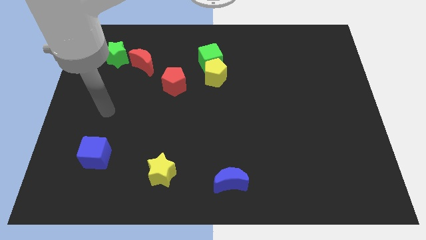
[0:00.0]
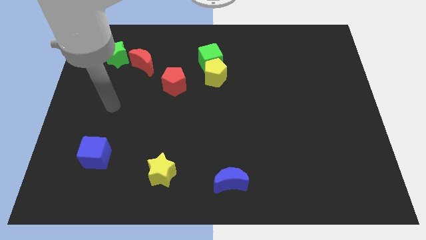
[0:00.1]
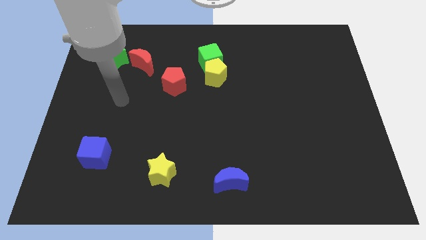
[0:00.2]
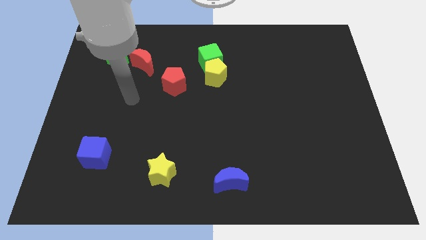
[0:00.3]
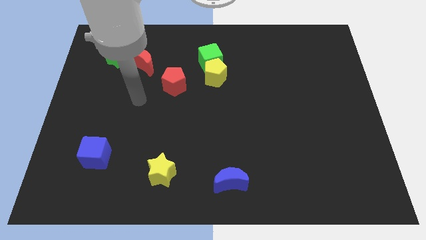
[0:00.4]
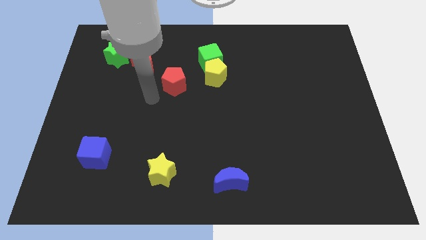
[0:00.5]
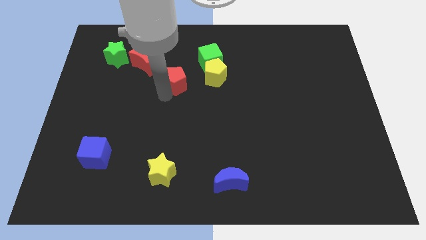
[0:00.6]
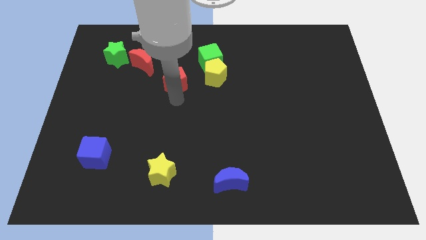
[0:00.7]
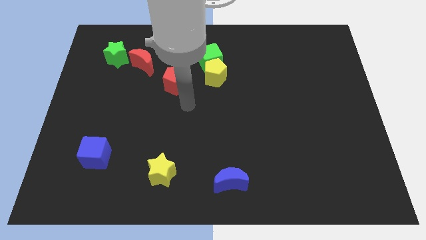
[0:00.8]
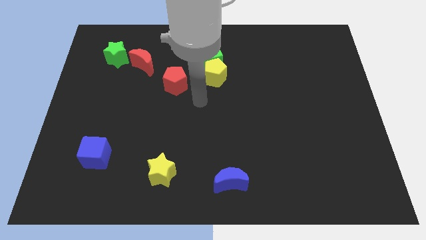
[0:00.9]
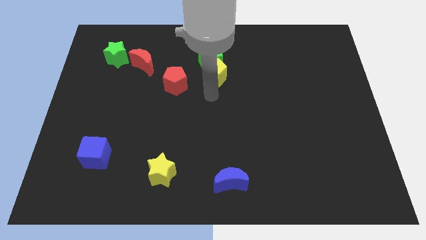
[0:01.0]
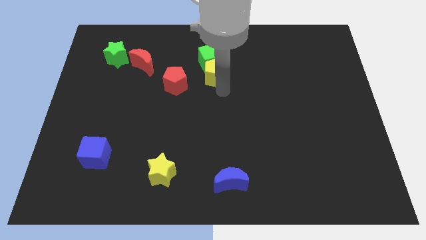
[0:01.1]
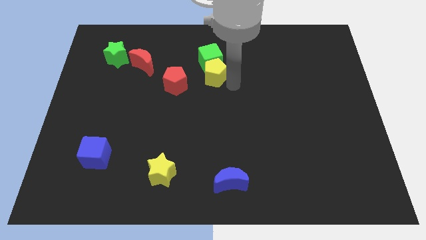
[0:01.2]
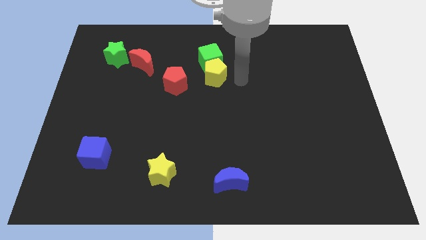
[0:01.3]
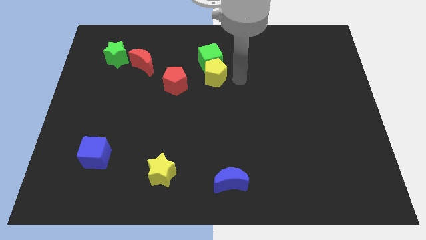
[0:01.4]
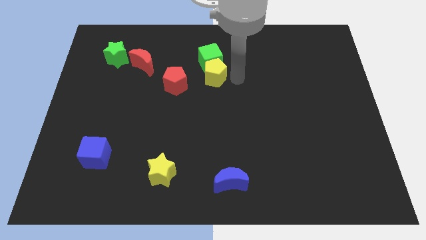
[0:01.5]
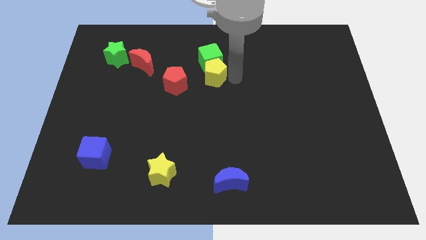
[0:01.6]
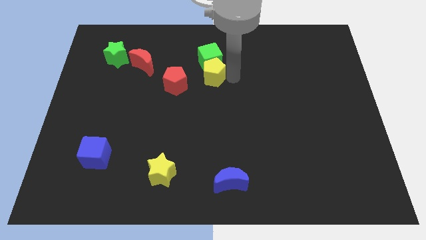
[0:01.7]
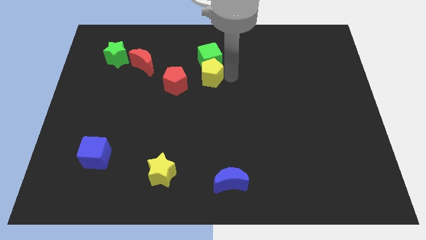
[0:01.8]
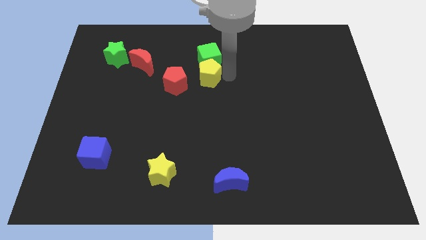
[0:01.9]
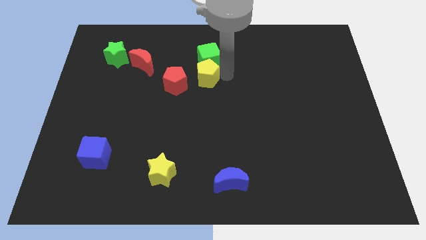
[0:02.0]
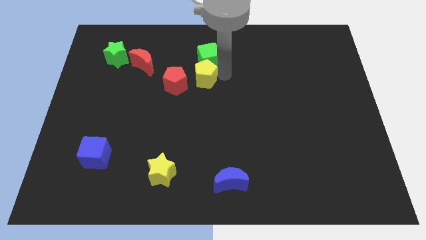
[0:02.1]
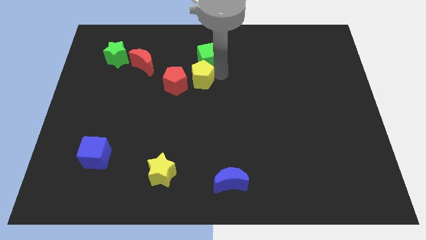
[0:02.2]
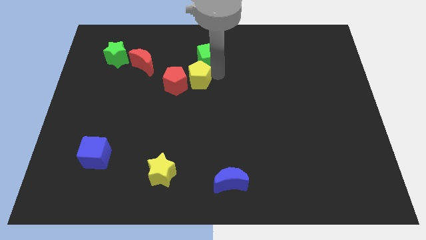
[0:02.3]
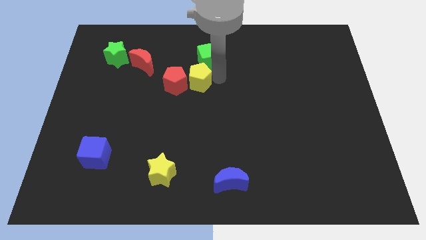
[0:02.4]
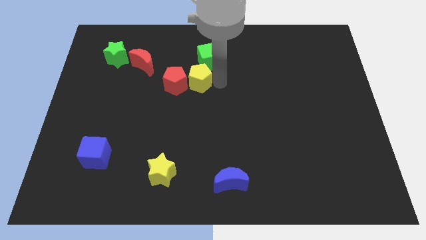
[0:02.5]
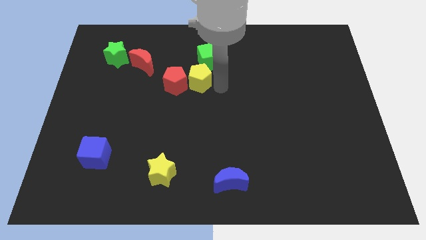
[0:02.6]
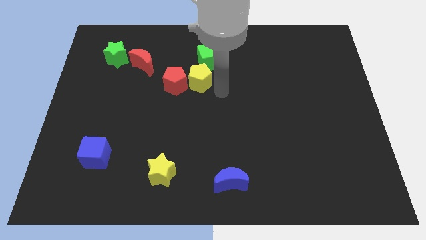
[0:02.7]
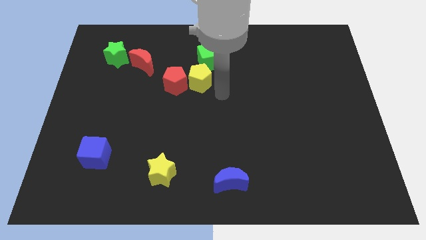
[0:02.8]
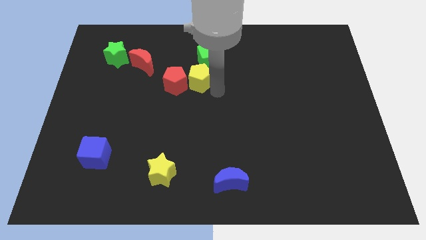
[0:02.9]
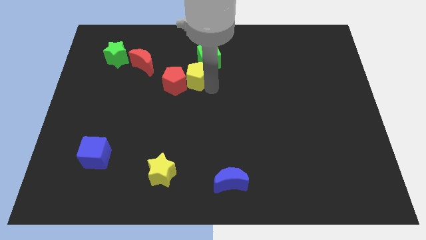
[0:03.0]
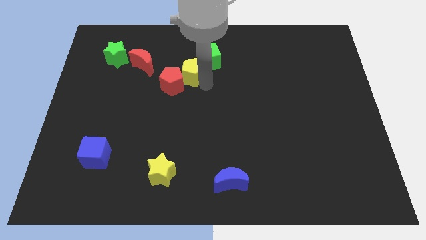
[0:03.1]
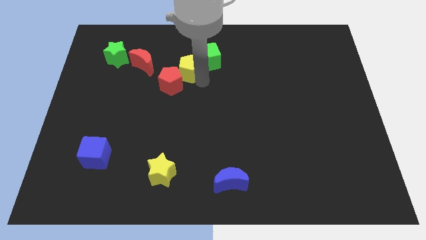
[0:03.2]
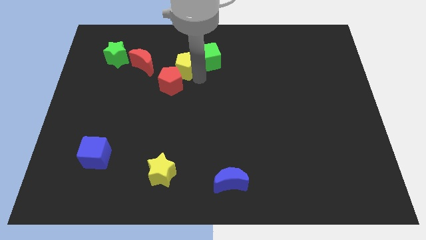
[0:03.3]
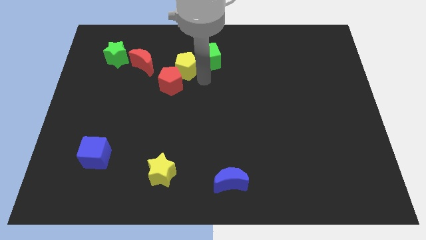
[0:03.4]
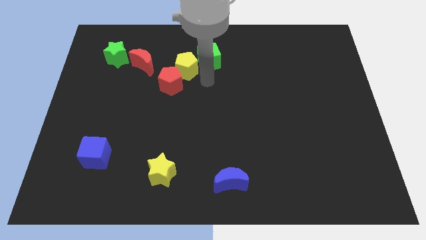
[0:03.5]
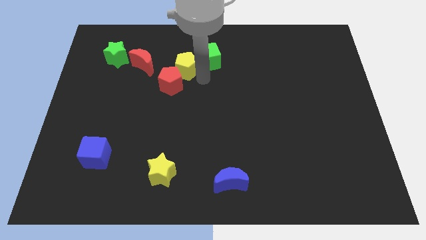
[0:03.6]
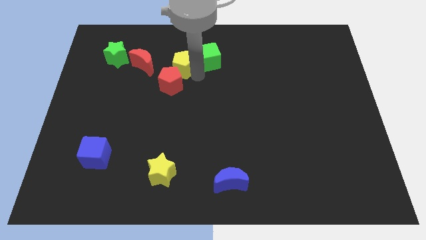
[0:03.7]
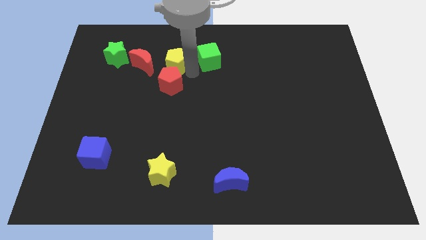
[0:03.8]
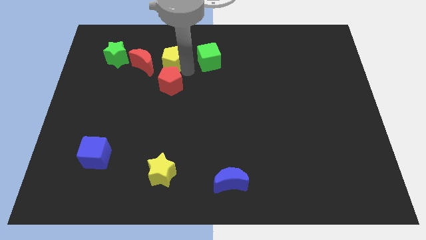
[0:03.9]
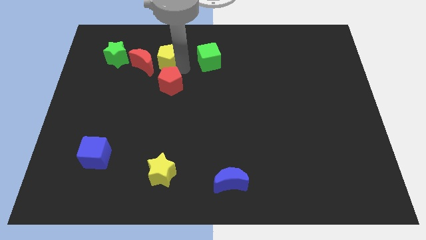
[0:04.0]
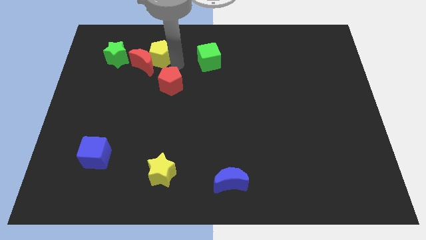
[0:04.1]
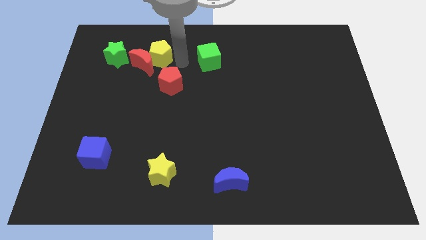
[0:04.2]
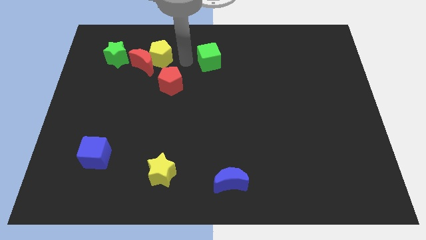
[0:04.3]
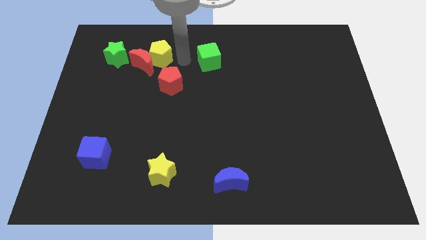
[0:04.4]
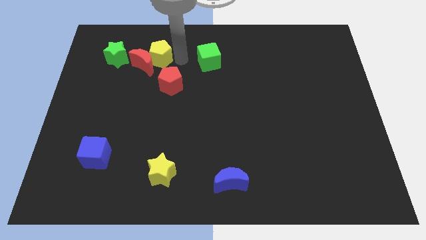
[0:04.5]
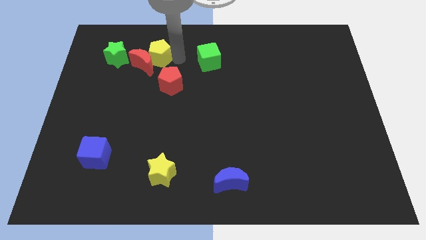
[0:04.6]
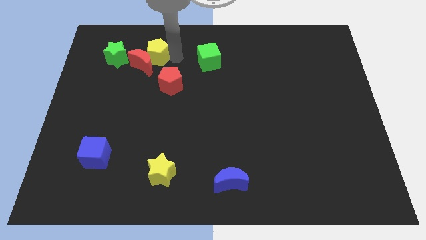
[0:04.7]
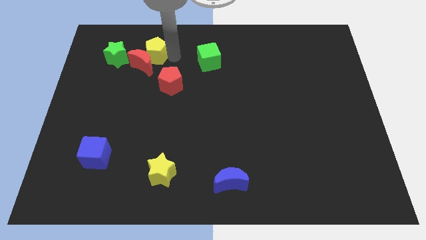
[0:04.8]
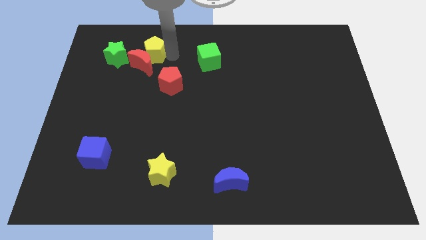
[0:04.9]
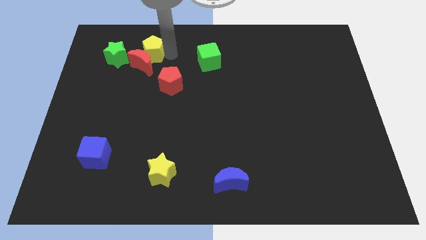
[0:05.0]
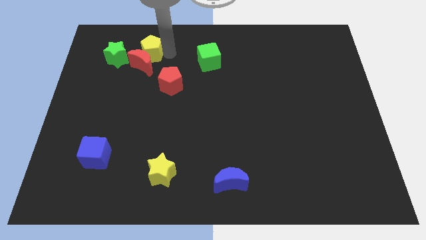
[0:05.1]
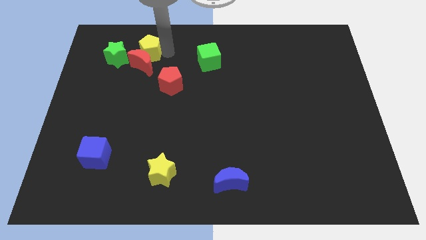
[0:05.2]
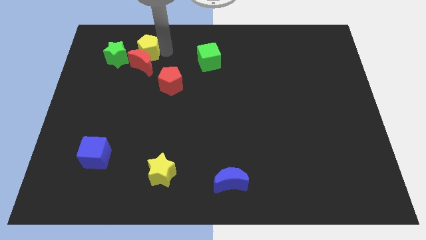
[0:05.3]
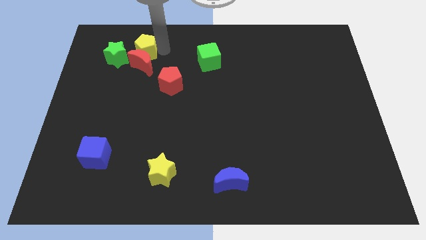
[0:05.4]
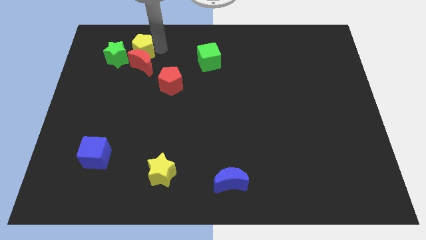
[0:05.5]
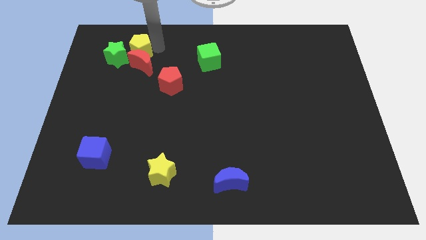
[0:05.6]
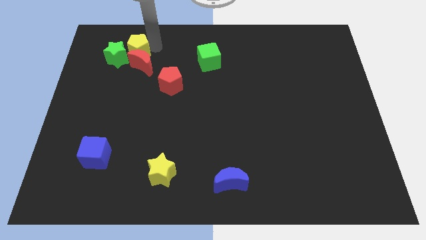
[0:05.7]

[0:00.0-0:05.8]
push the yellow pentagon towards the green star
